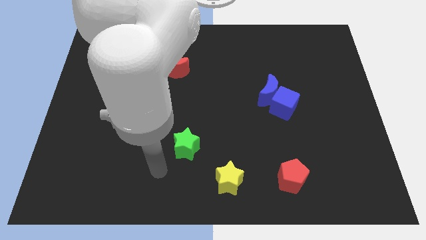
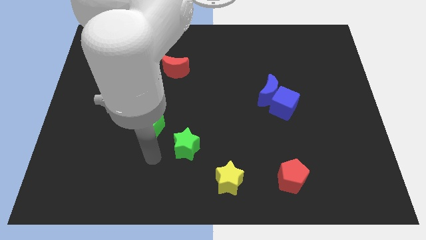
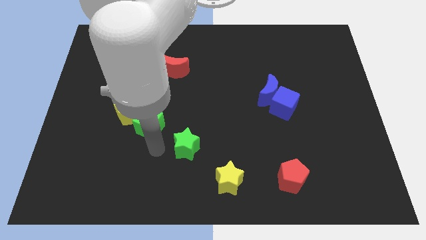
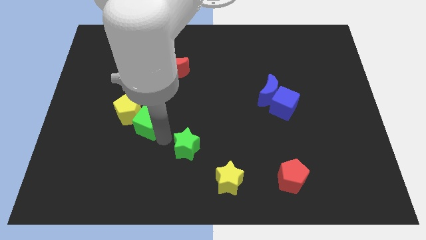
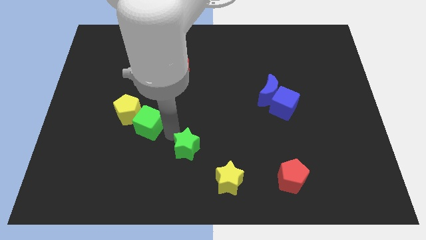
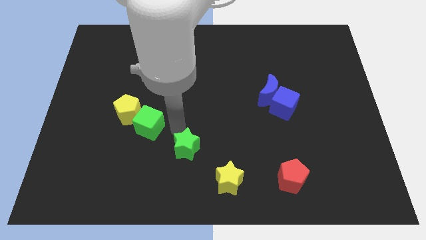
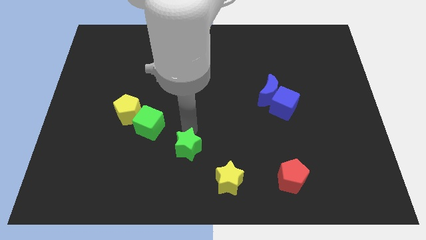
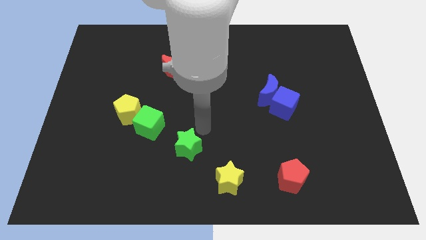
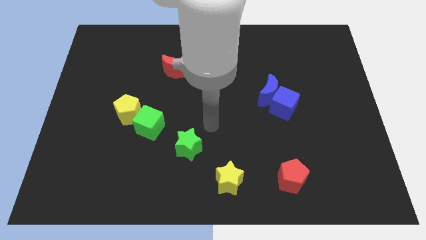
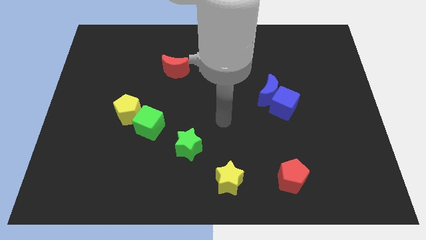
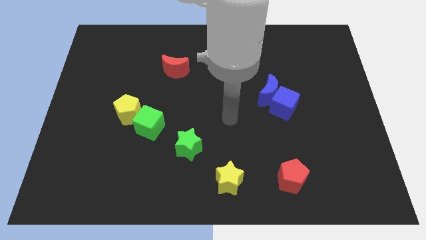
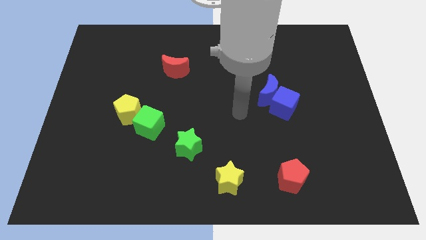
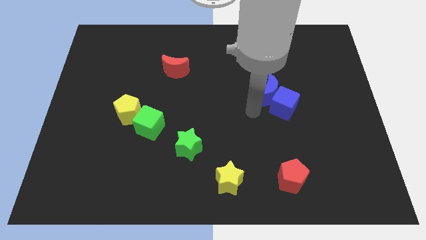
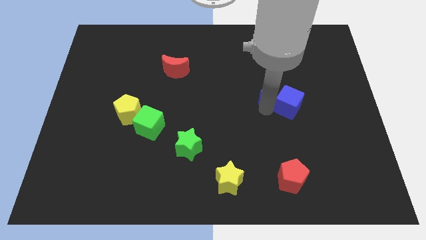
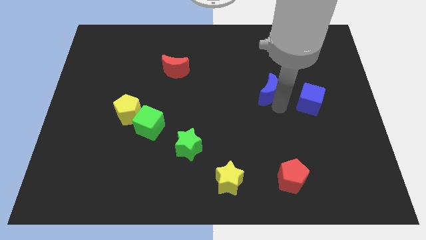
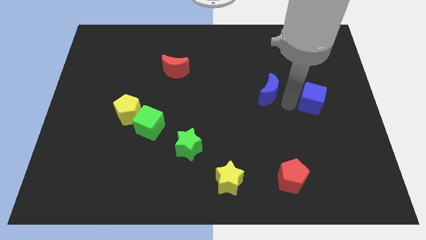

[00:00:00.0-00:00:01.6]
pull the blue moon apart from the blue cube

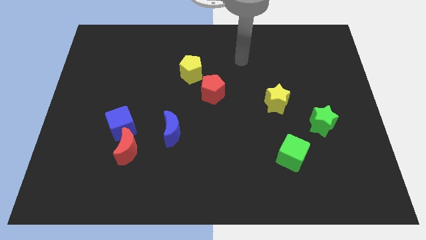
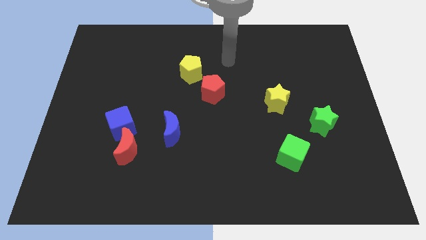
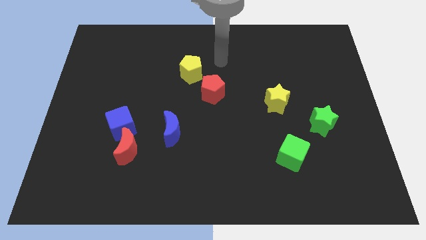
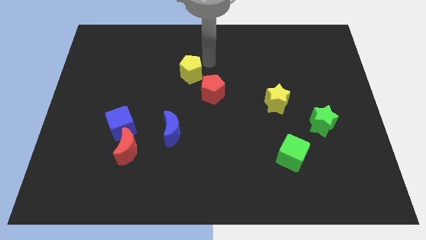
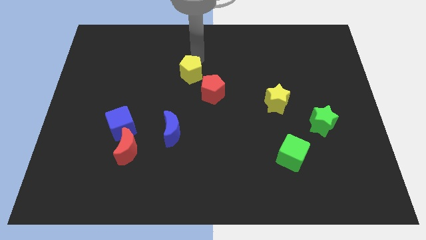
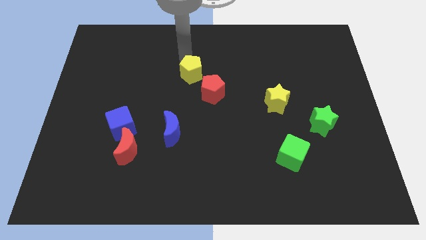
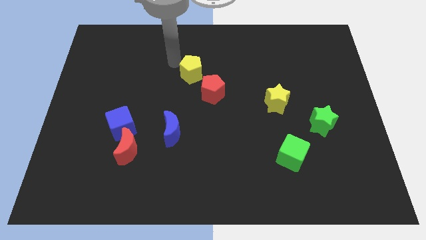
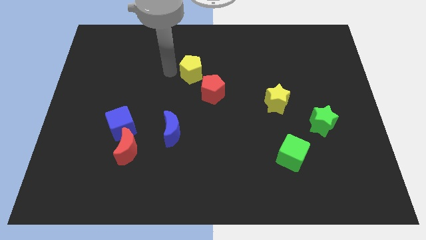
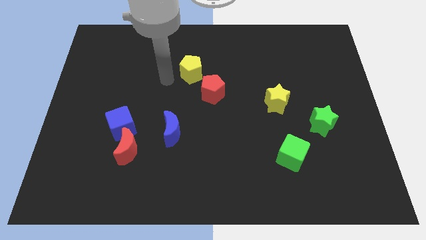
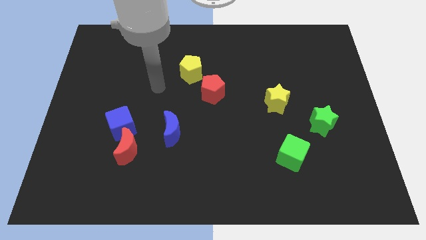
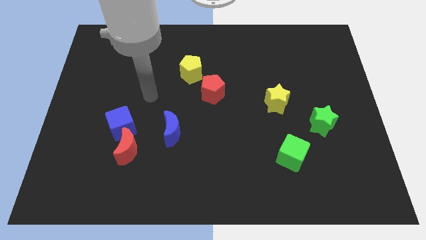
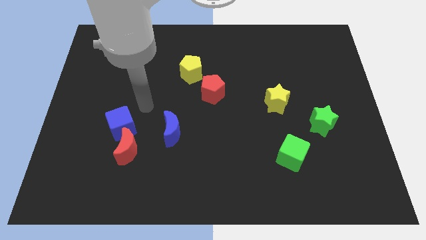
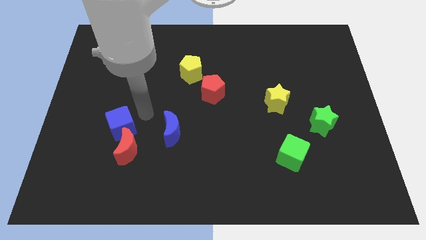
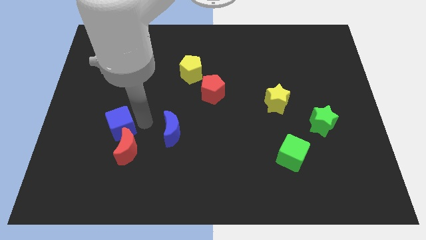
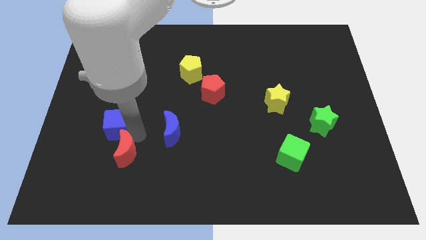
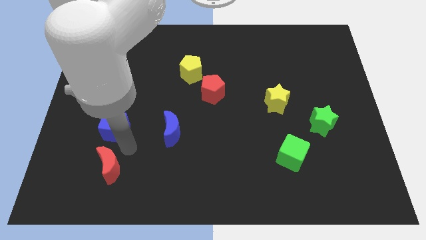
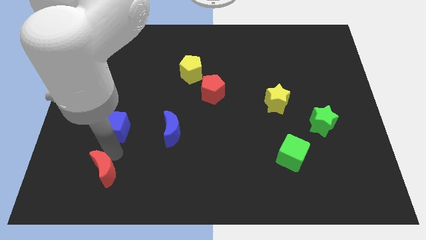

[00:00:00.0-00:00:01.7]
pull the blue cube apart from the red moon

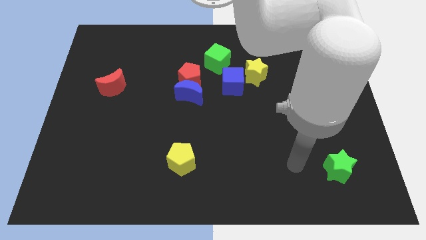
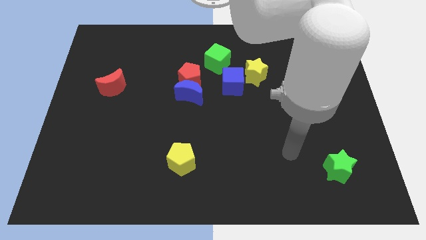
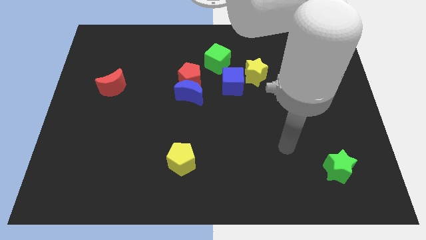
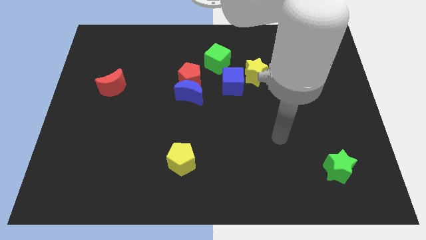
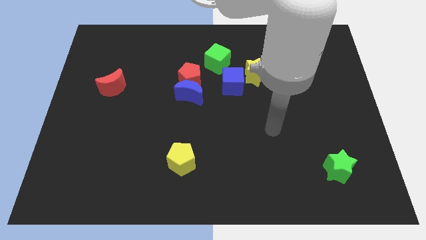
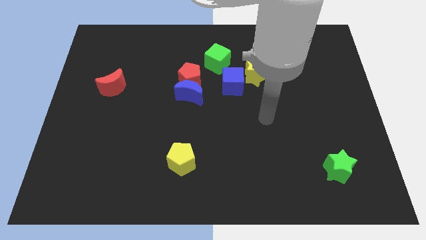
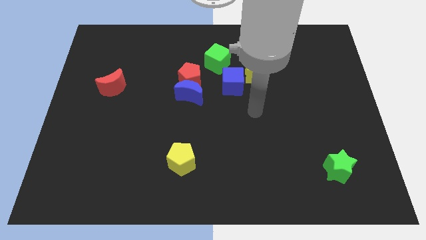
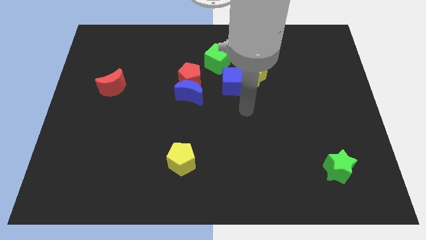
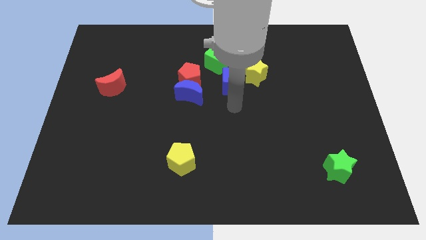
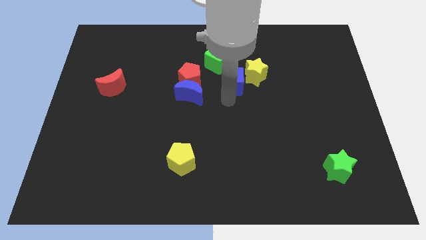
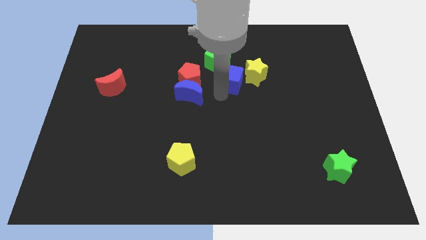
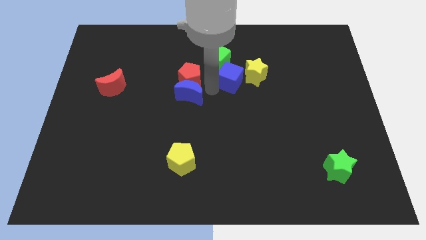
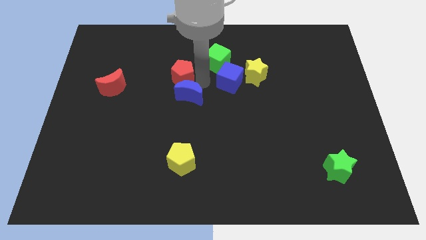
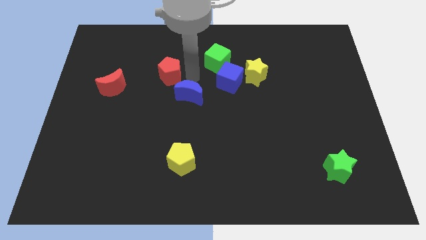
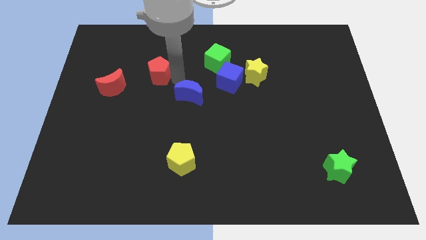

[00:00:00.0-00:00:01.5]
pull the blue moon apart from the red pentagon

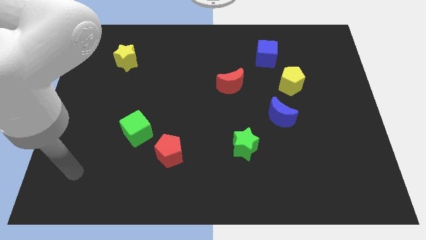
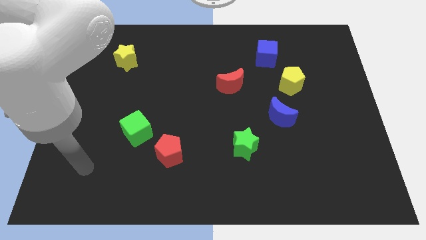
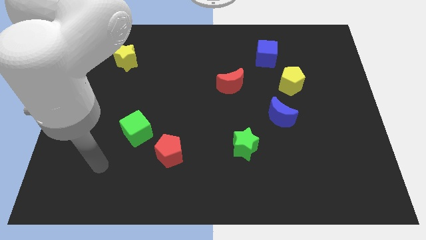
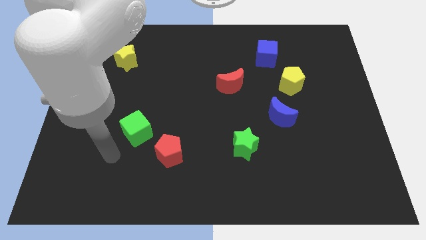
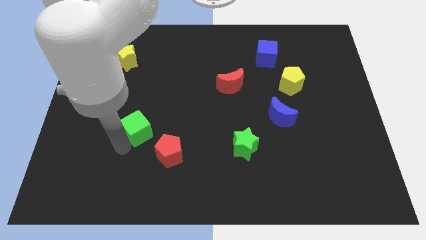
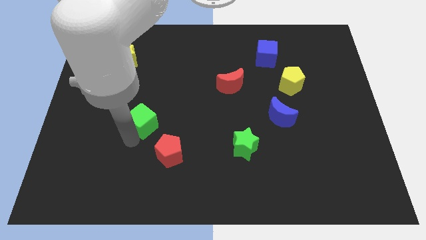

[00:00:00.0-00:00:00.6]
move the red pentagon away from the green cube

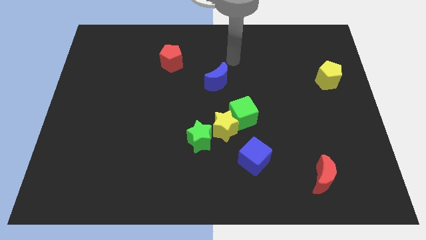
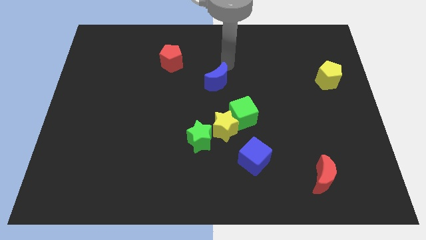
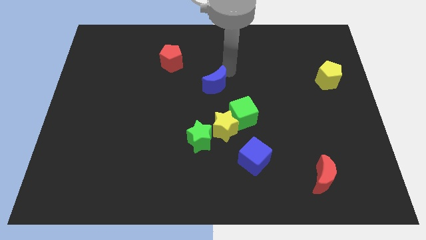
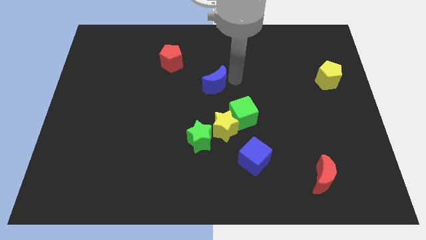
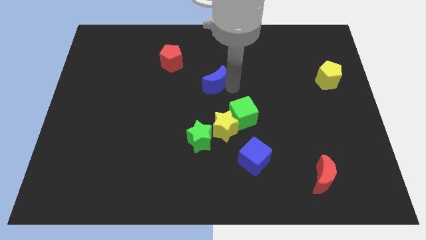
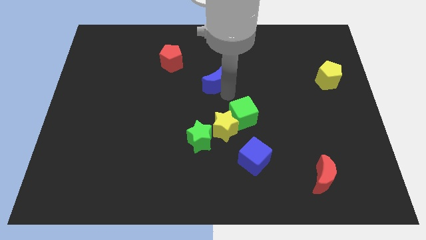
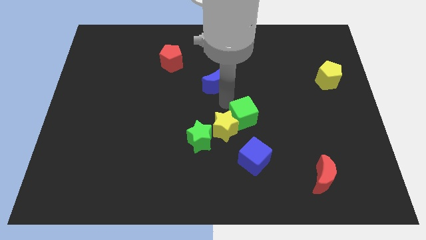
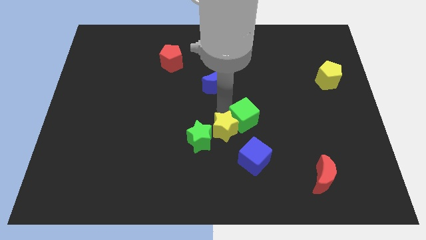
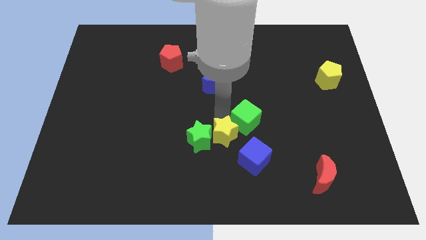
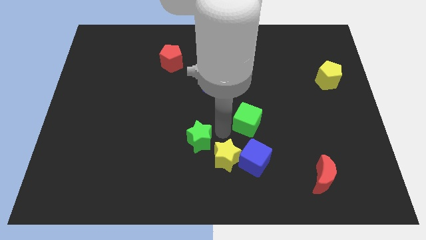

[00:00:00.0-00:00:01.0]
move the green cube away from the yellow star

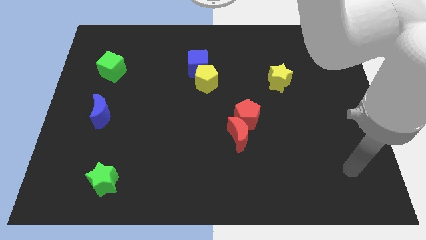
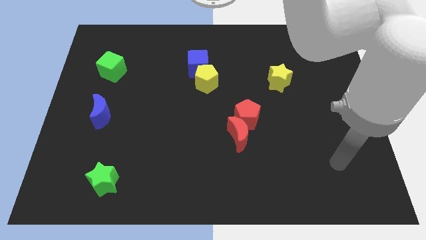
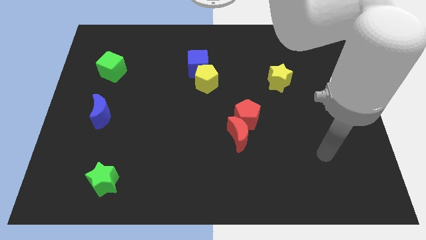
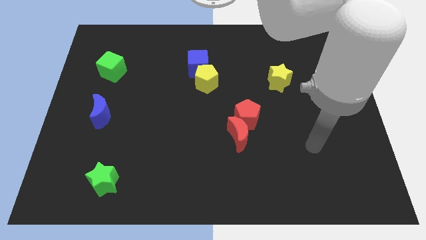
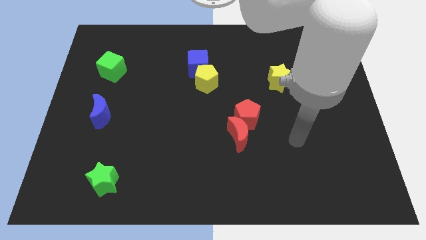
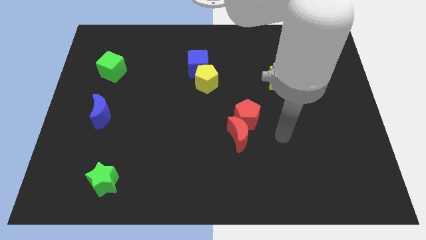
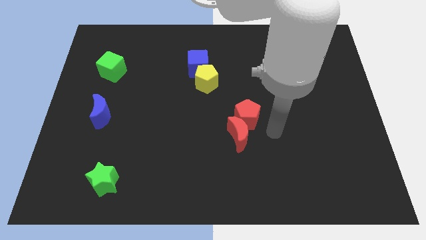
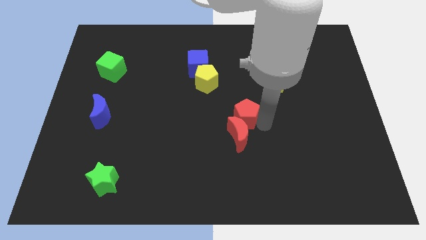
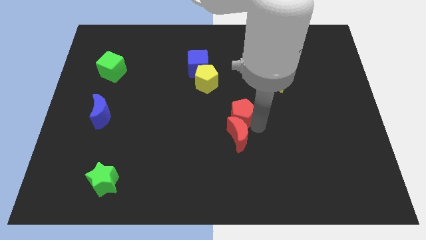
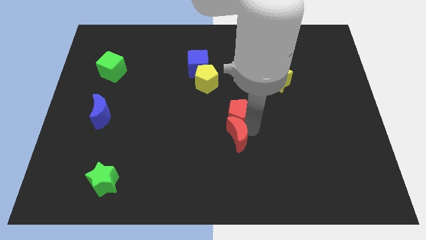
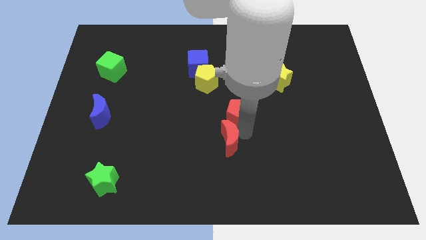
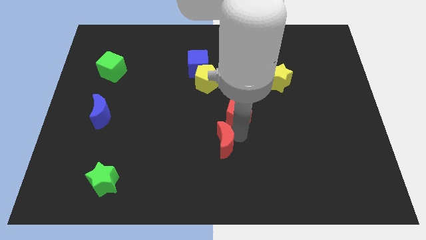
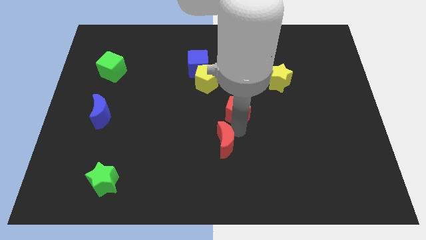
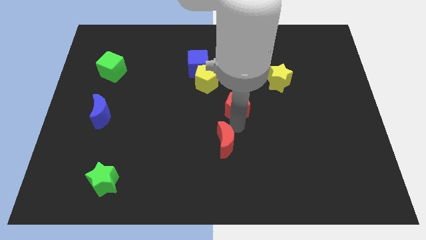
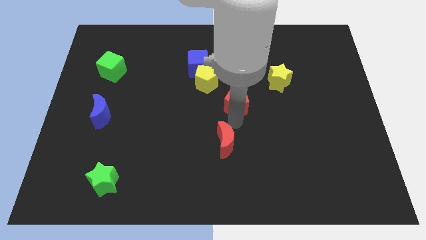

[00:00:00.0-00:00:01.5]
separate the red moon from the red pentagon

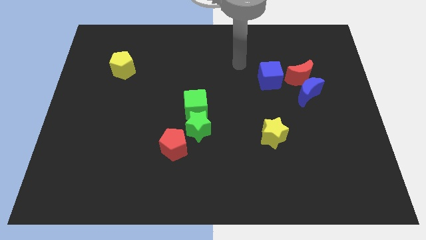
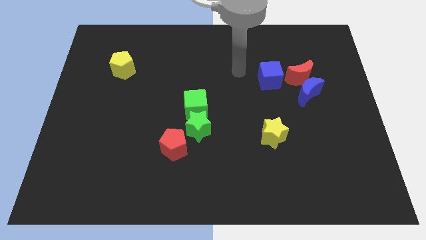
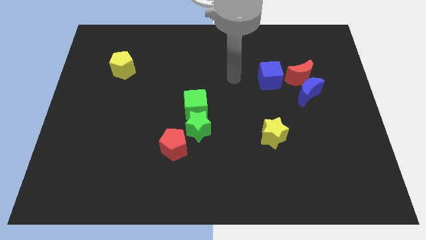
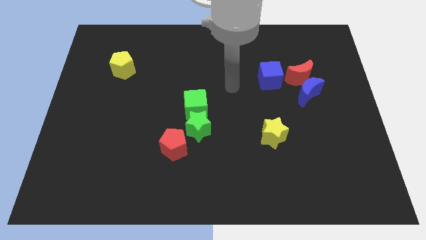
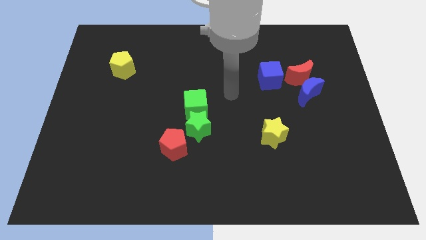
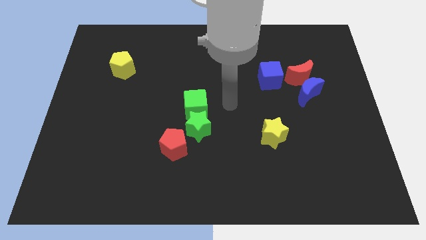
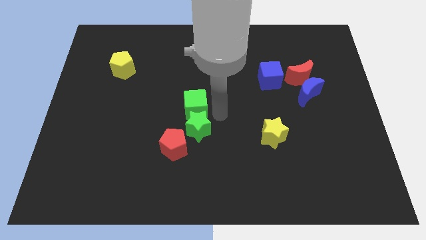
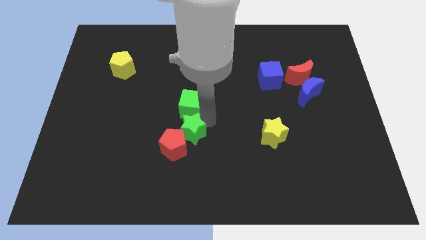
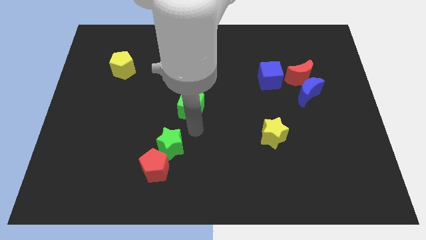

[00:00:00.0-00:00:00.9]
move the green cube away from the green star

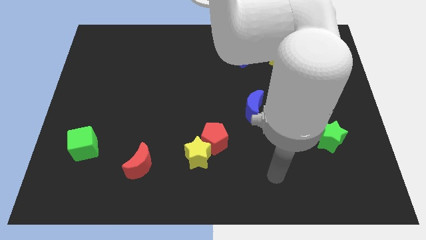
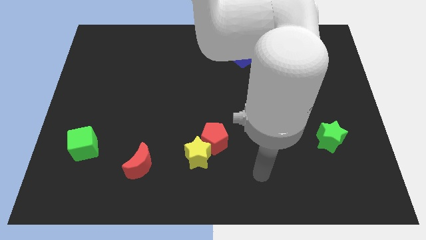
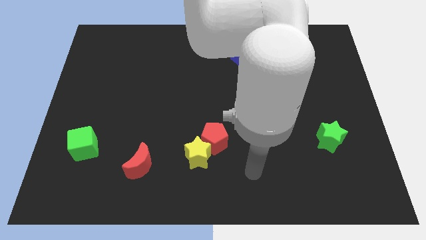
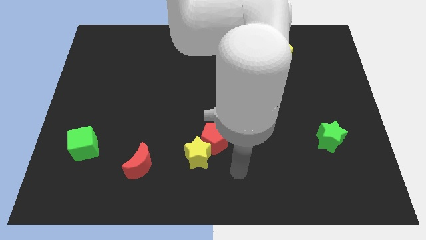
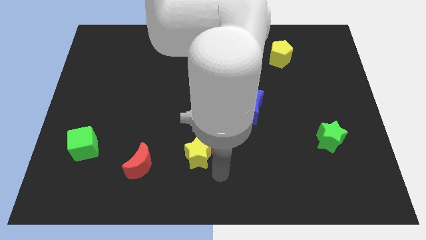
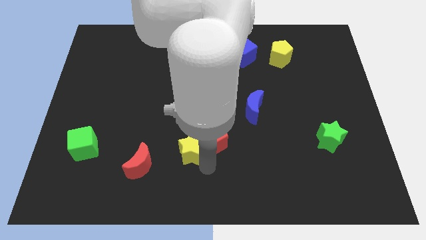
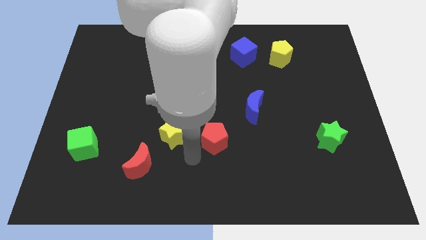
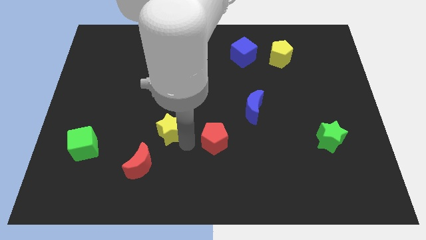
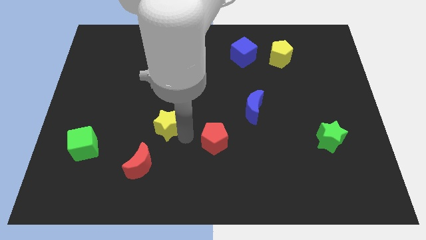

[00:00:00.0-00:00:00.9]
separate the red pentagon from the yellow star
